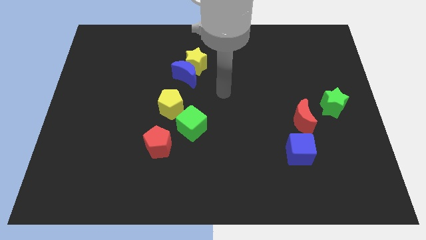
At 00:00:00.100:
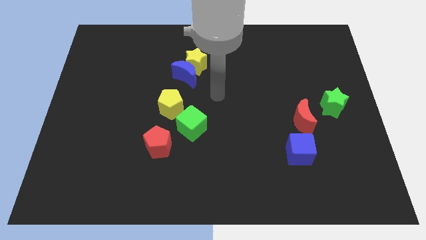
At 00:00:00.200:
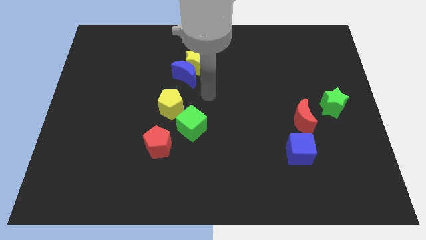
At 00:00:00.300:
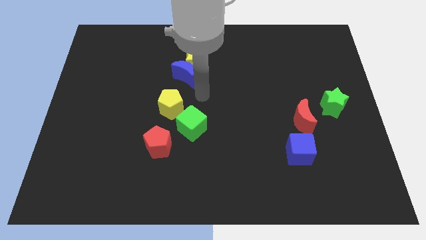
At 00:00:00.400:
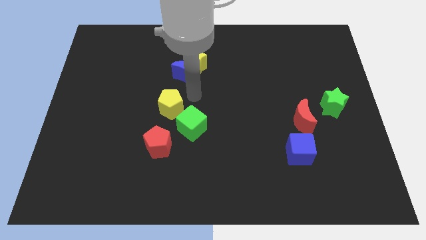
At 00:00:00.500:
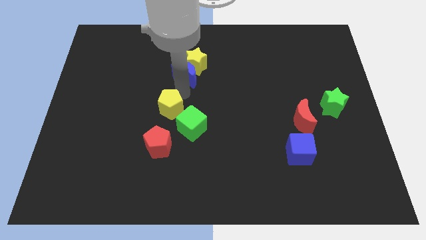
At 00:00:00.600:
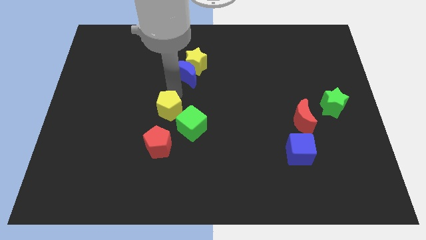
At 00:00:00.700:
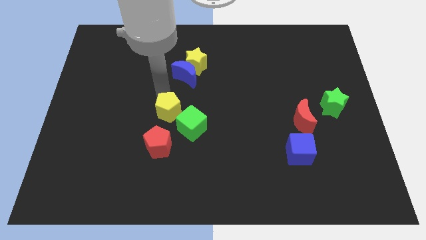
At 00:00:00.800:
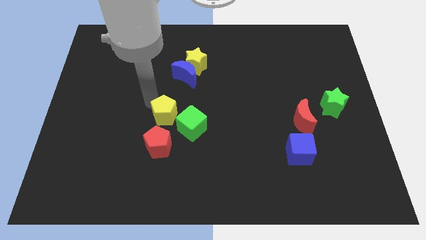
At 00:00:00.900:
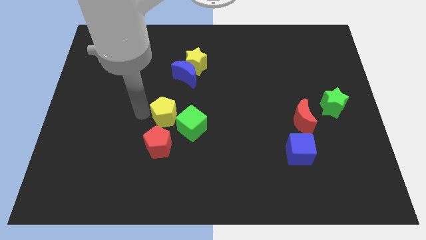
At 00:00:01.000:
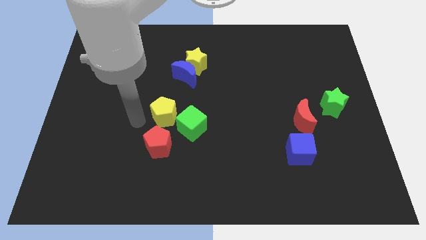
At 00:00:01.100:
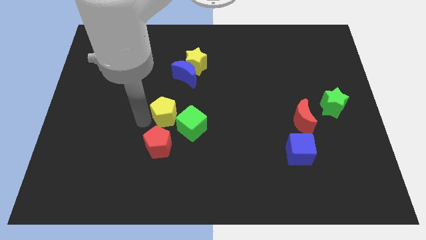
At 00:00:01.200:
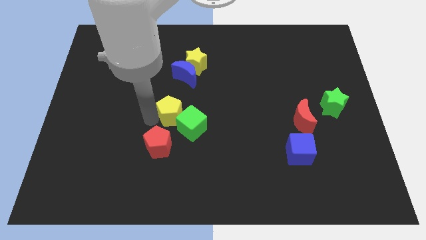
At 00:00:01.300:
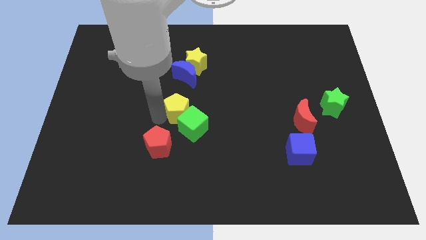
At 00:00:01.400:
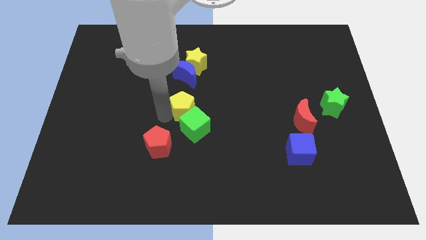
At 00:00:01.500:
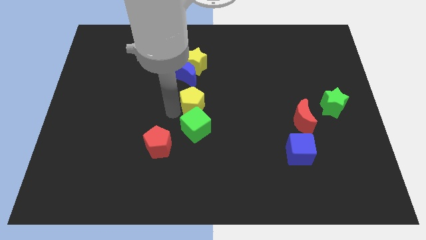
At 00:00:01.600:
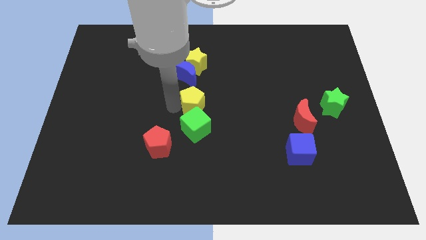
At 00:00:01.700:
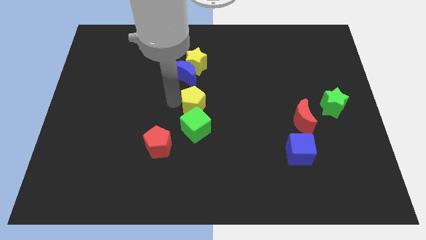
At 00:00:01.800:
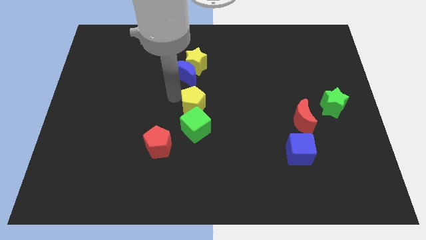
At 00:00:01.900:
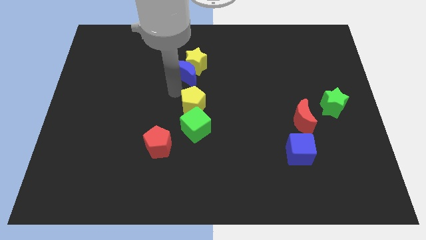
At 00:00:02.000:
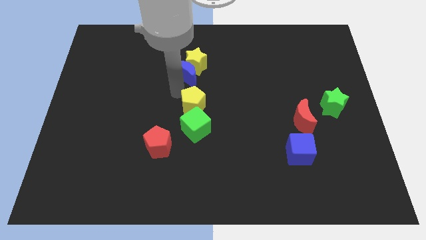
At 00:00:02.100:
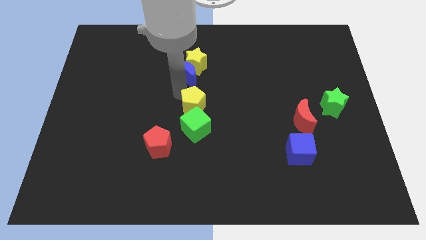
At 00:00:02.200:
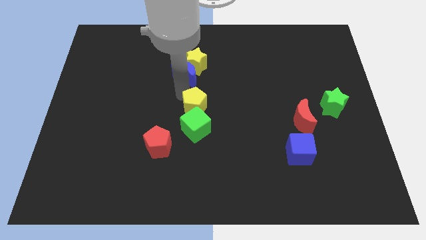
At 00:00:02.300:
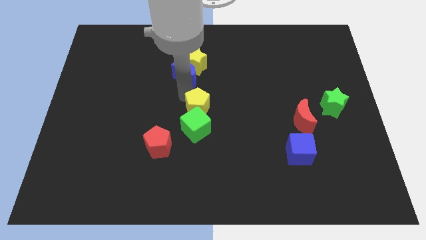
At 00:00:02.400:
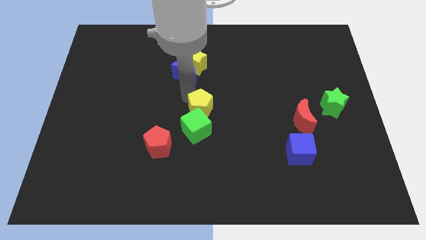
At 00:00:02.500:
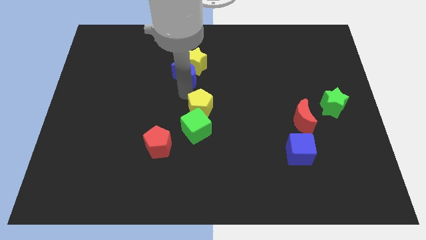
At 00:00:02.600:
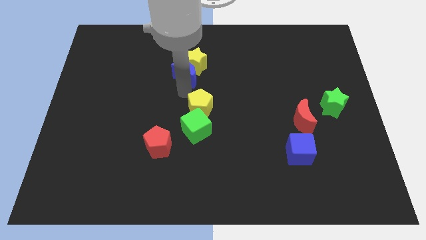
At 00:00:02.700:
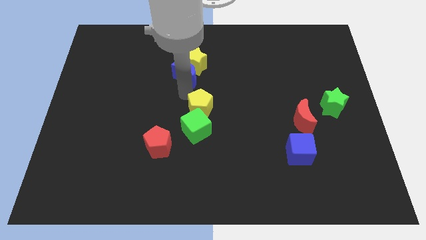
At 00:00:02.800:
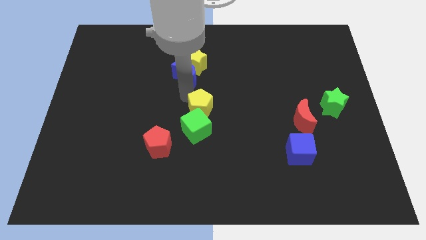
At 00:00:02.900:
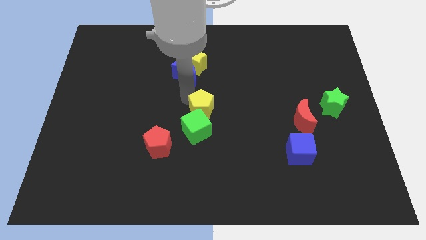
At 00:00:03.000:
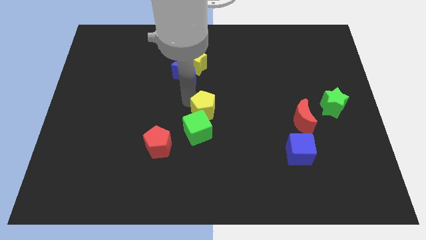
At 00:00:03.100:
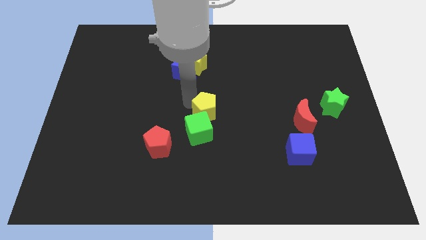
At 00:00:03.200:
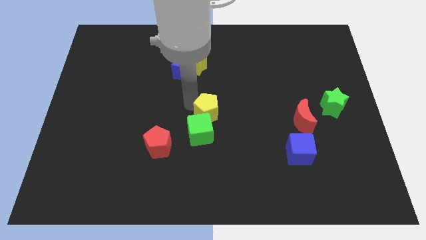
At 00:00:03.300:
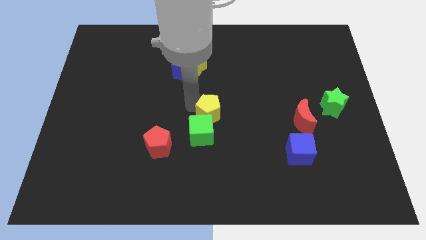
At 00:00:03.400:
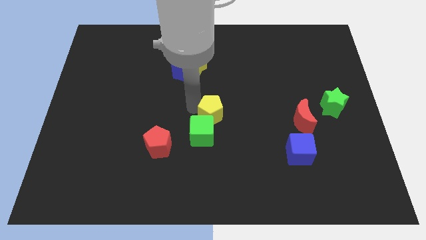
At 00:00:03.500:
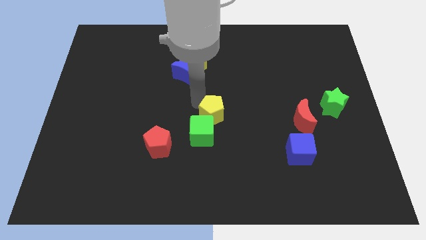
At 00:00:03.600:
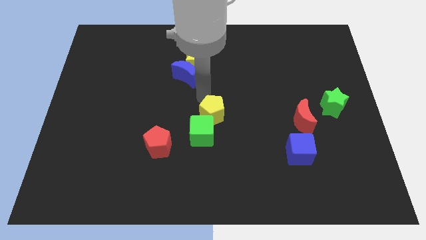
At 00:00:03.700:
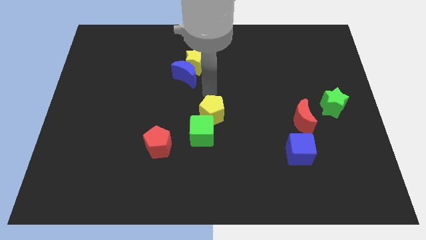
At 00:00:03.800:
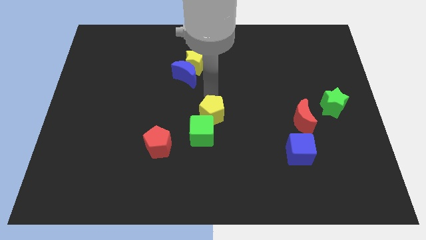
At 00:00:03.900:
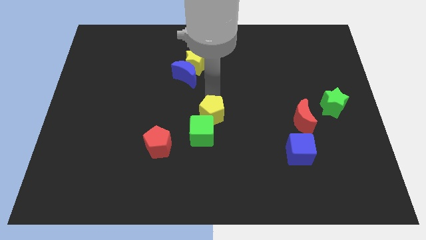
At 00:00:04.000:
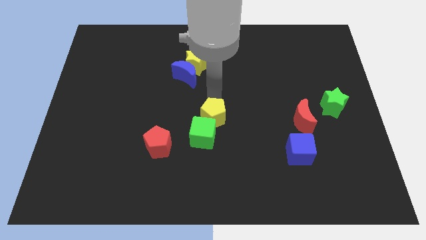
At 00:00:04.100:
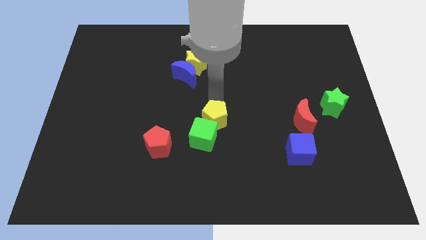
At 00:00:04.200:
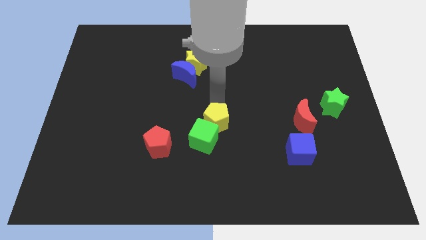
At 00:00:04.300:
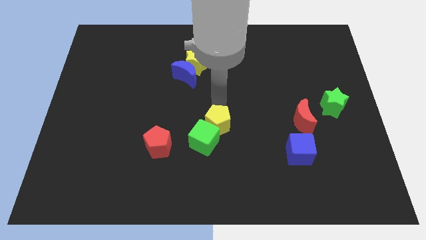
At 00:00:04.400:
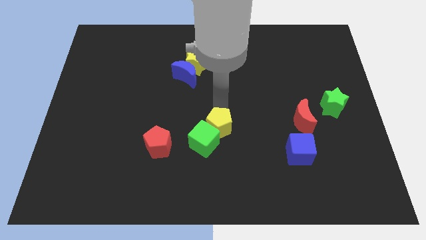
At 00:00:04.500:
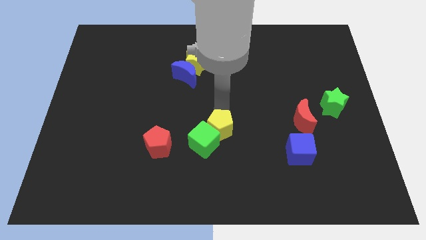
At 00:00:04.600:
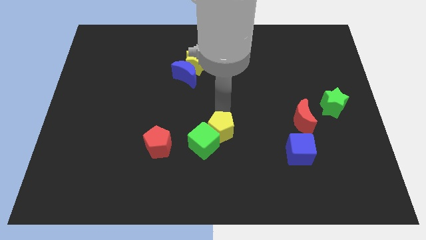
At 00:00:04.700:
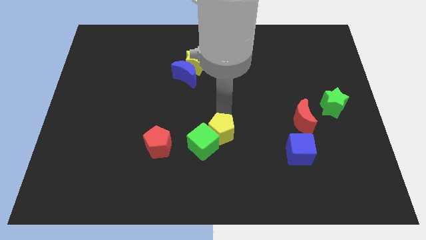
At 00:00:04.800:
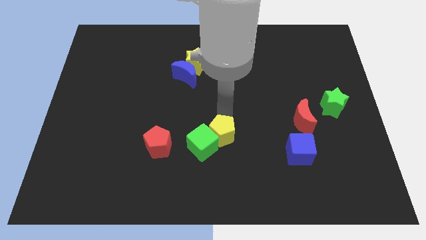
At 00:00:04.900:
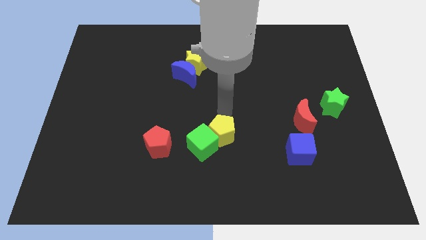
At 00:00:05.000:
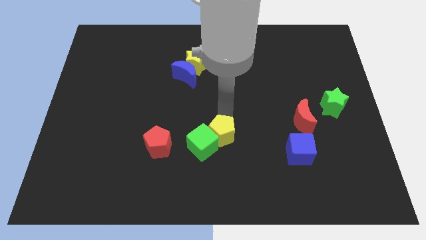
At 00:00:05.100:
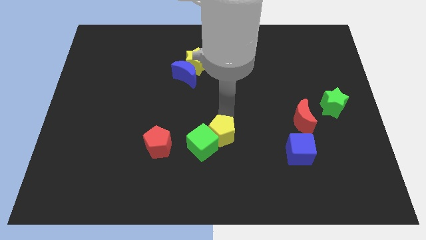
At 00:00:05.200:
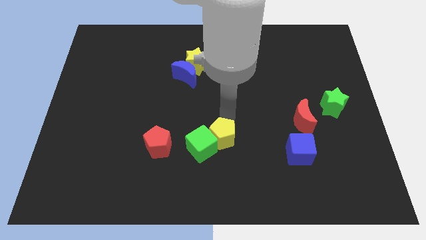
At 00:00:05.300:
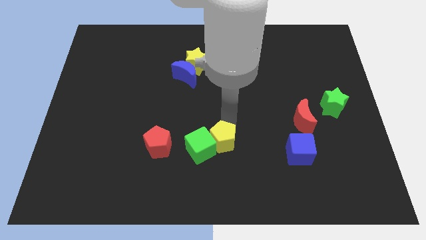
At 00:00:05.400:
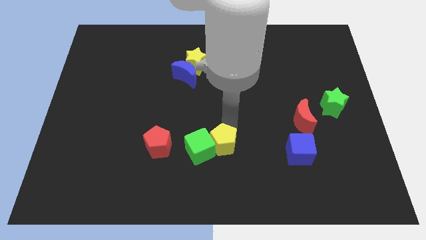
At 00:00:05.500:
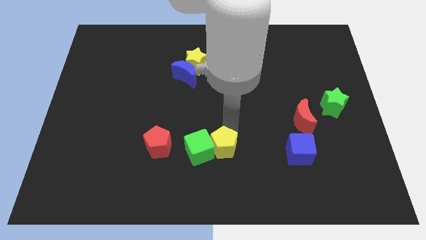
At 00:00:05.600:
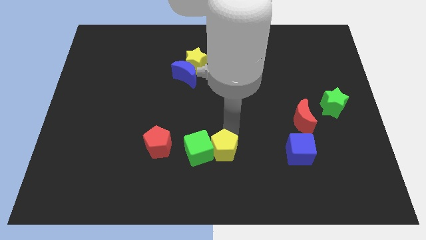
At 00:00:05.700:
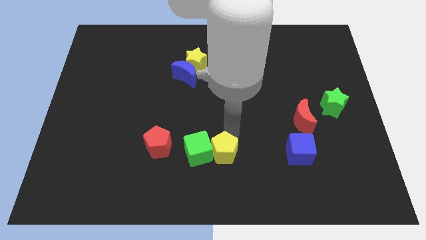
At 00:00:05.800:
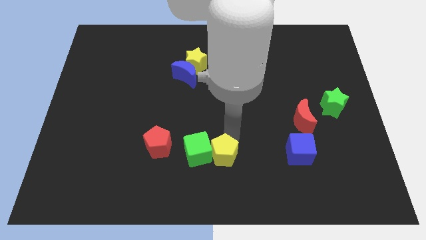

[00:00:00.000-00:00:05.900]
slide the yellow pentagon to the bottom side

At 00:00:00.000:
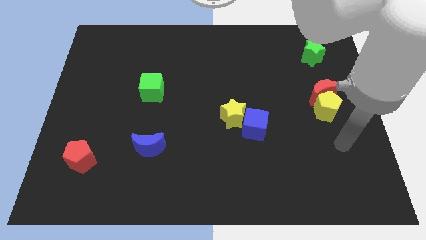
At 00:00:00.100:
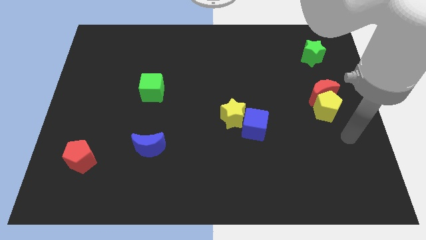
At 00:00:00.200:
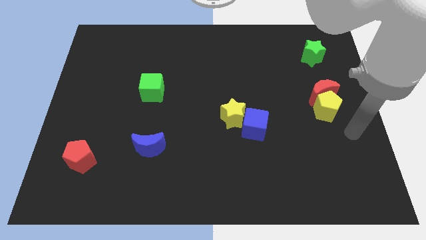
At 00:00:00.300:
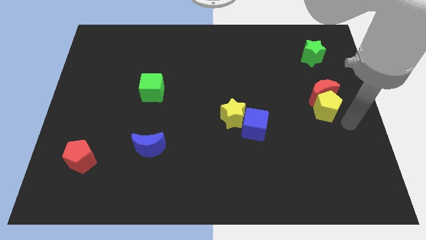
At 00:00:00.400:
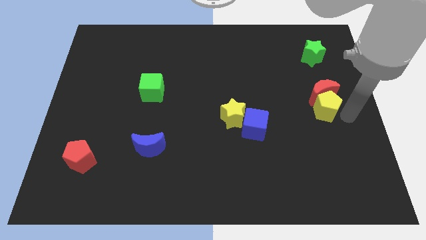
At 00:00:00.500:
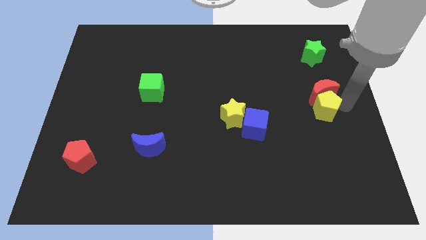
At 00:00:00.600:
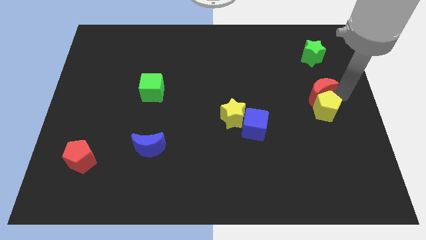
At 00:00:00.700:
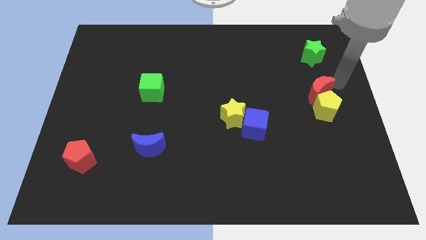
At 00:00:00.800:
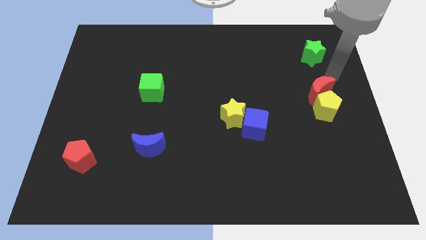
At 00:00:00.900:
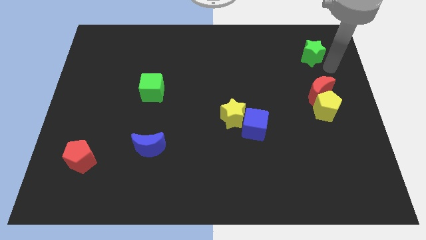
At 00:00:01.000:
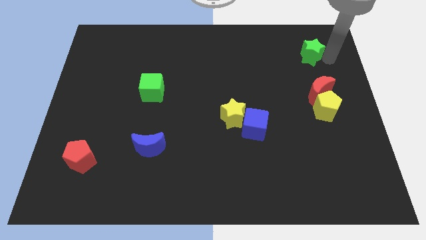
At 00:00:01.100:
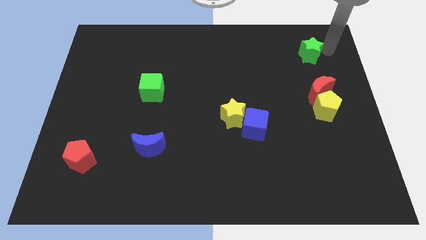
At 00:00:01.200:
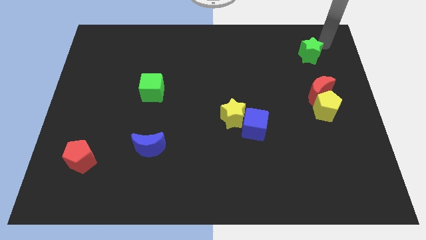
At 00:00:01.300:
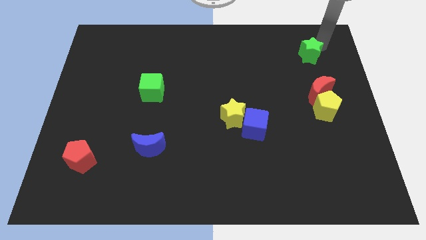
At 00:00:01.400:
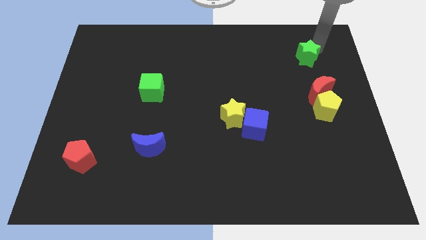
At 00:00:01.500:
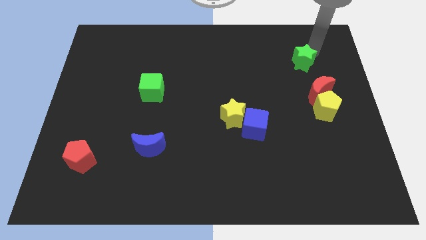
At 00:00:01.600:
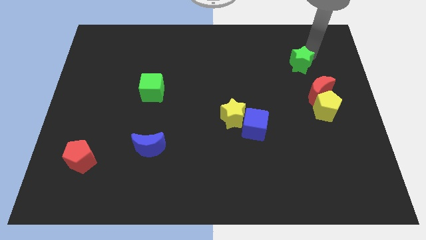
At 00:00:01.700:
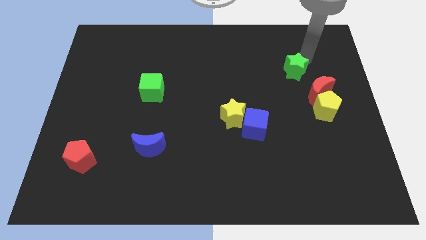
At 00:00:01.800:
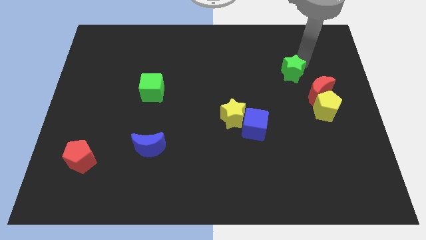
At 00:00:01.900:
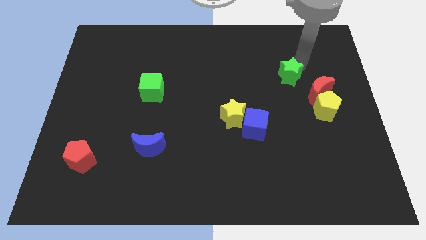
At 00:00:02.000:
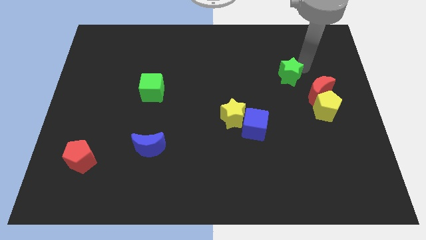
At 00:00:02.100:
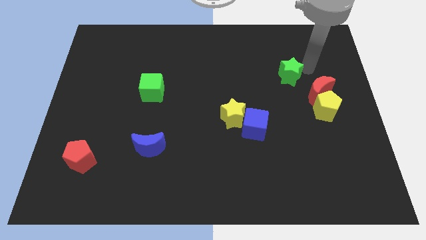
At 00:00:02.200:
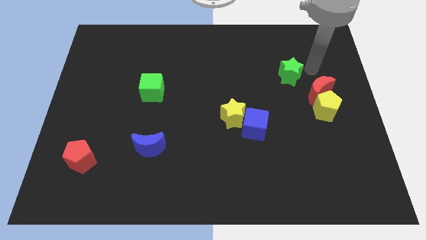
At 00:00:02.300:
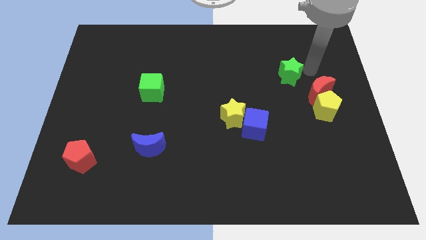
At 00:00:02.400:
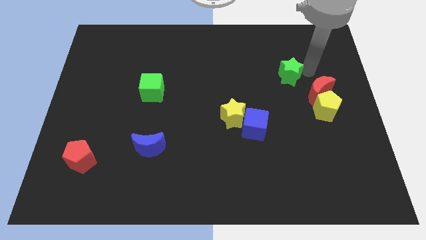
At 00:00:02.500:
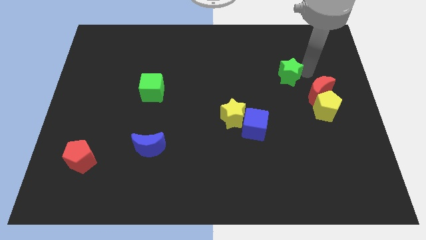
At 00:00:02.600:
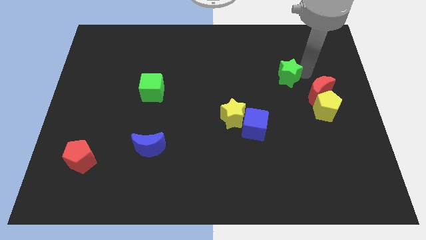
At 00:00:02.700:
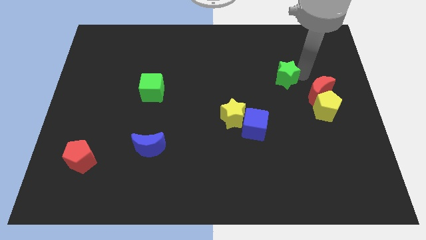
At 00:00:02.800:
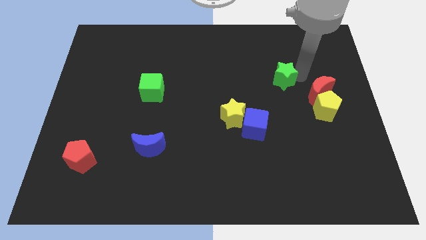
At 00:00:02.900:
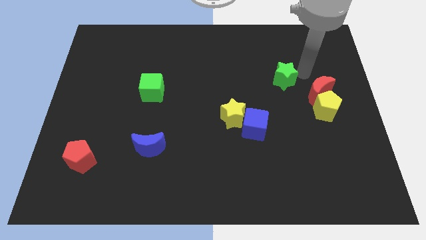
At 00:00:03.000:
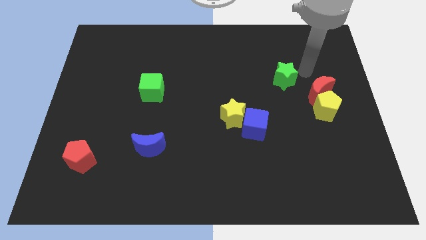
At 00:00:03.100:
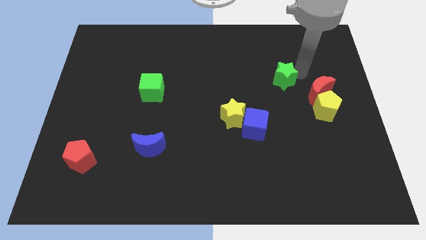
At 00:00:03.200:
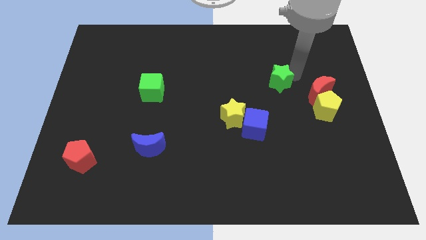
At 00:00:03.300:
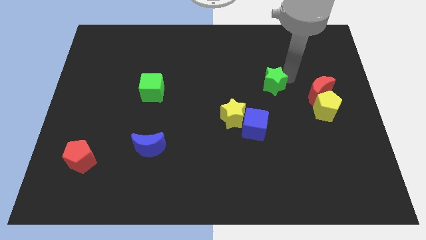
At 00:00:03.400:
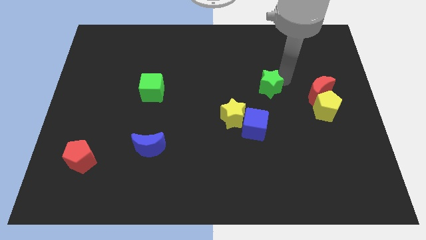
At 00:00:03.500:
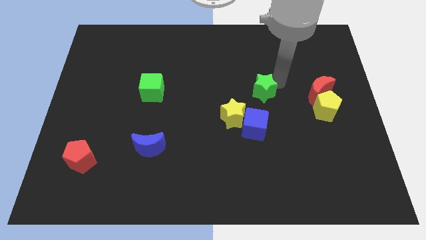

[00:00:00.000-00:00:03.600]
push the green star to the center of the board
